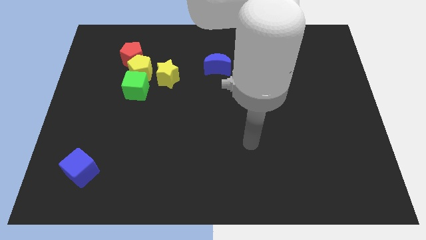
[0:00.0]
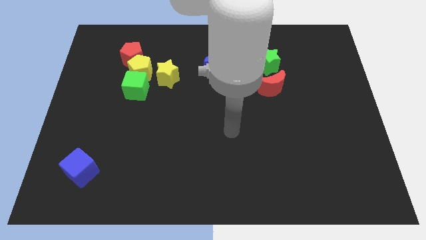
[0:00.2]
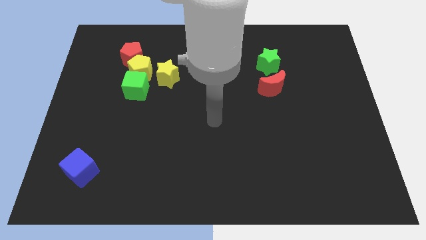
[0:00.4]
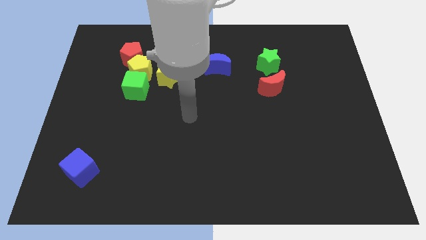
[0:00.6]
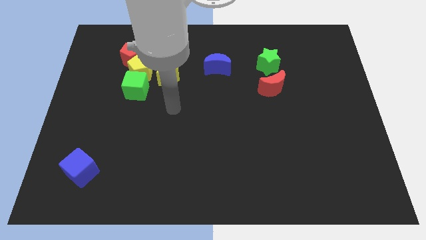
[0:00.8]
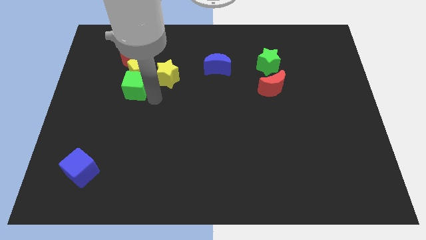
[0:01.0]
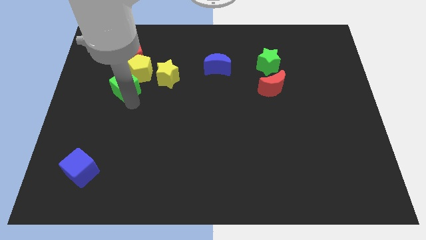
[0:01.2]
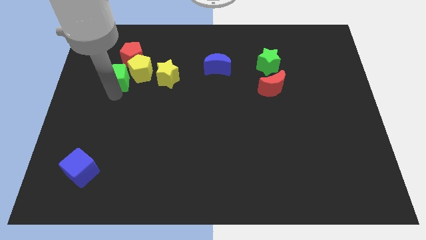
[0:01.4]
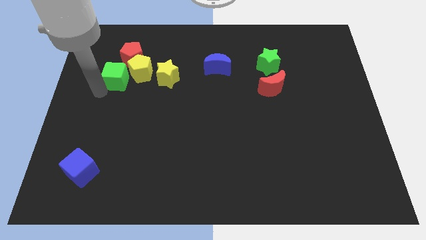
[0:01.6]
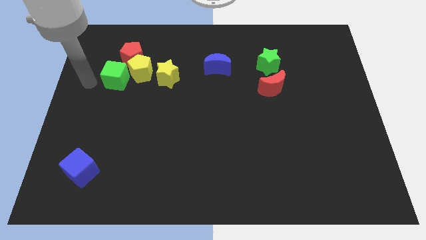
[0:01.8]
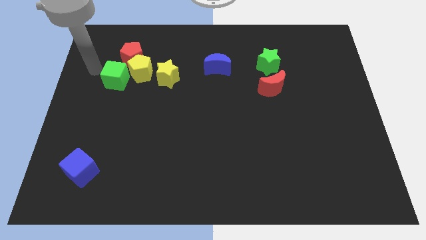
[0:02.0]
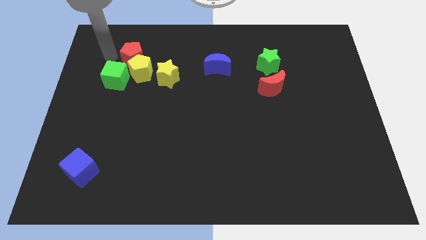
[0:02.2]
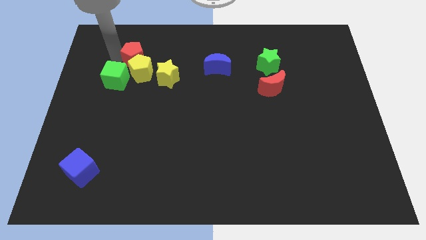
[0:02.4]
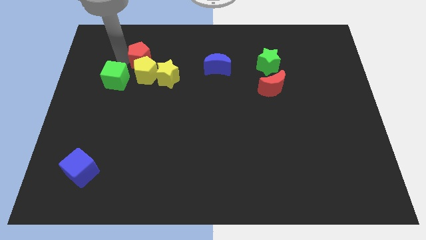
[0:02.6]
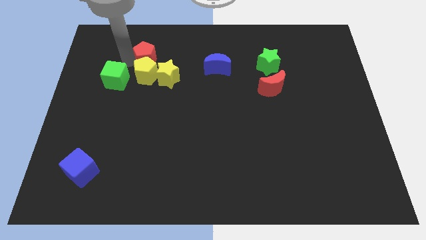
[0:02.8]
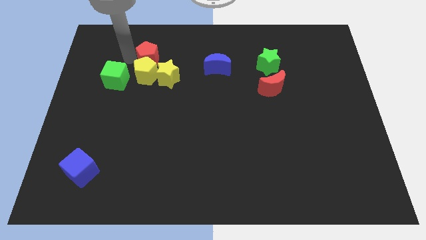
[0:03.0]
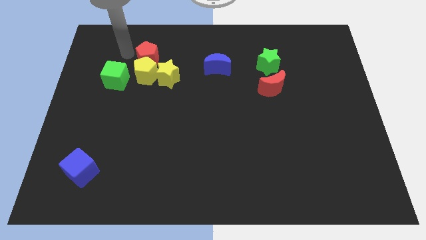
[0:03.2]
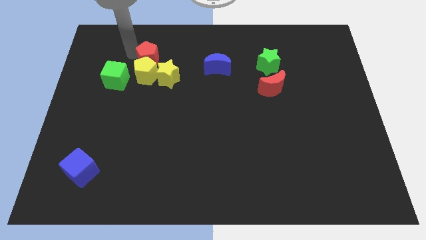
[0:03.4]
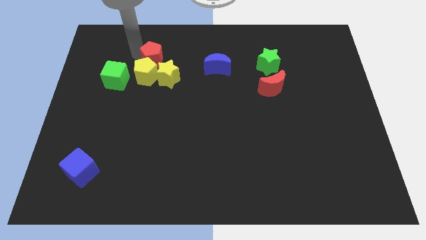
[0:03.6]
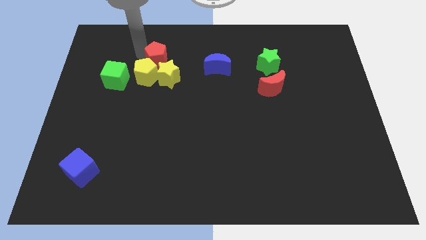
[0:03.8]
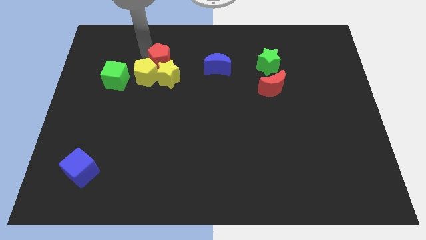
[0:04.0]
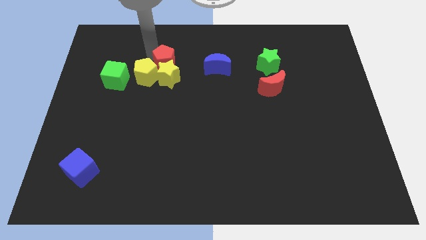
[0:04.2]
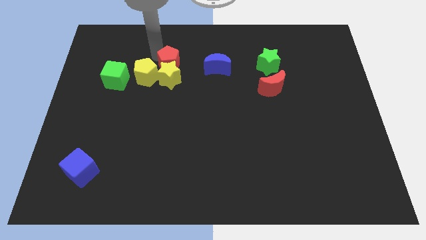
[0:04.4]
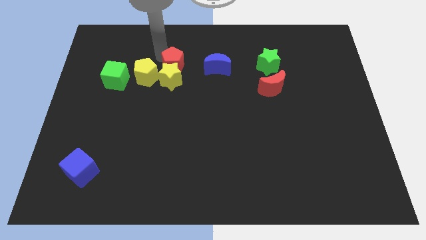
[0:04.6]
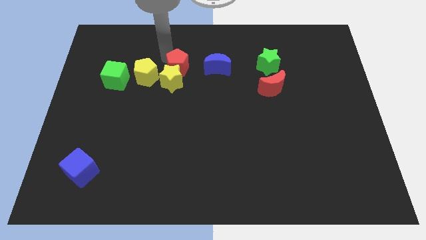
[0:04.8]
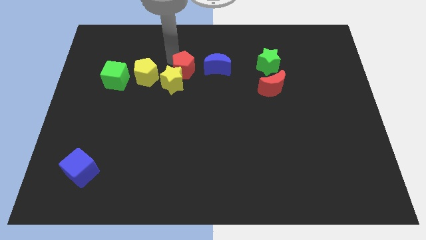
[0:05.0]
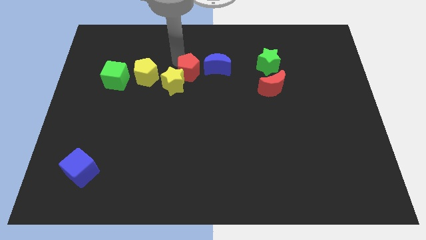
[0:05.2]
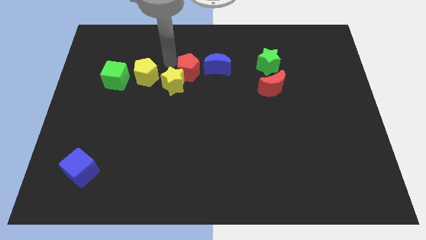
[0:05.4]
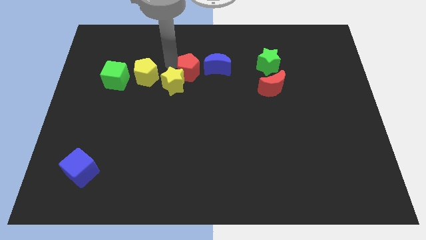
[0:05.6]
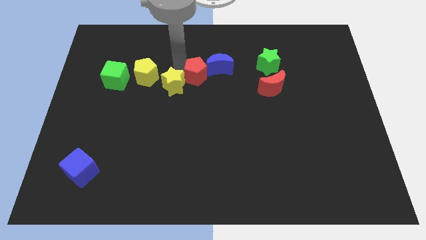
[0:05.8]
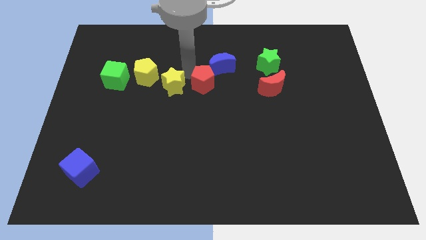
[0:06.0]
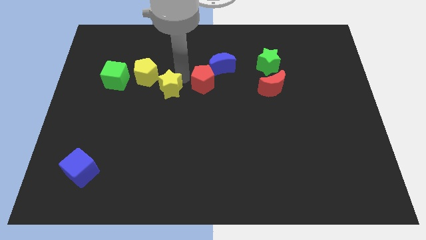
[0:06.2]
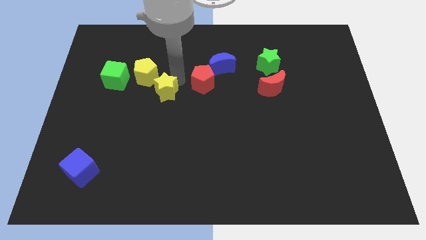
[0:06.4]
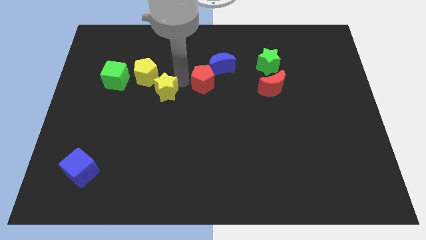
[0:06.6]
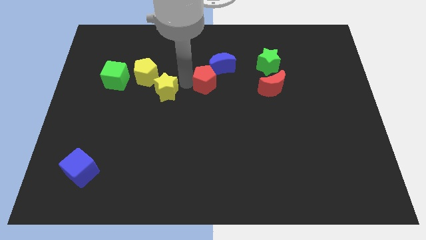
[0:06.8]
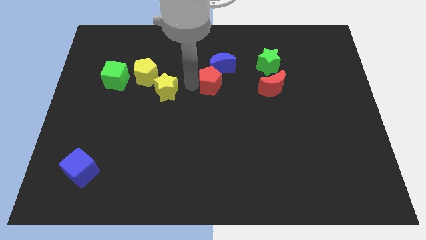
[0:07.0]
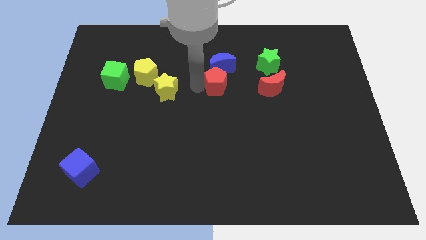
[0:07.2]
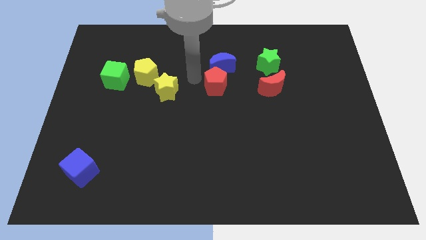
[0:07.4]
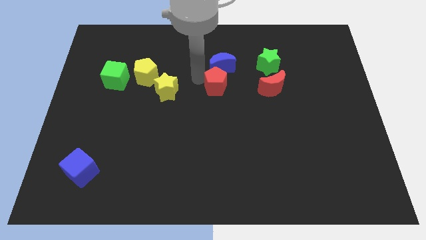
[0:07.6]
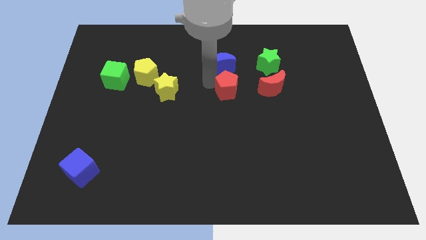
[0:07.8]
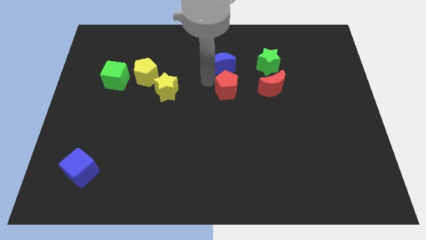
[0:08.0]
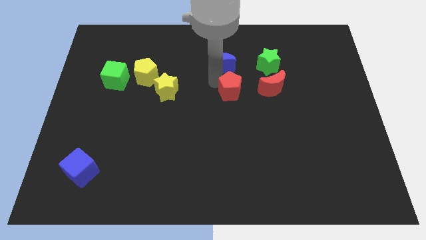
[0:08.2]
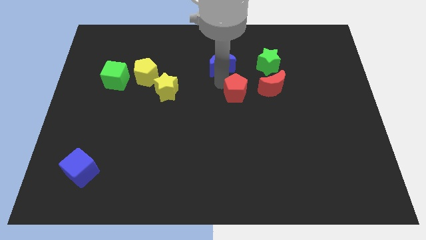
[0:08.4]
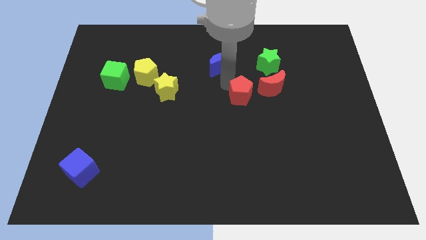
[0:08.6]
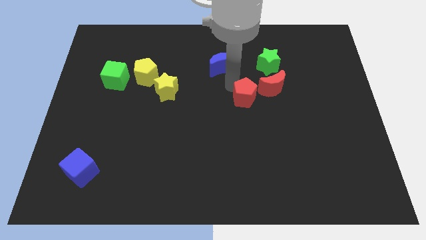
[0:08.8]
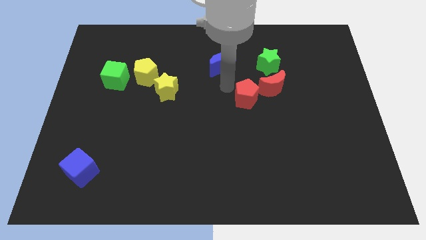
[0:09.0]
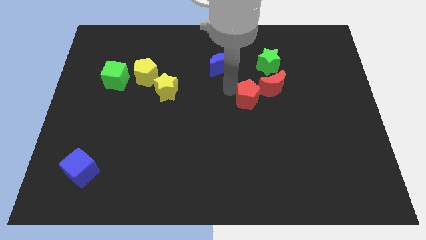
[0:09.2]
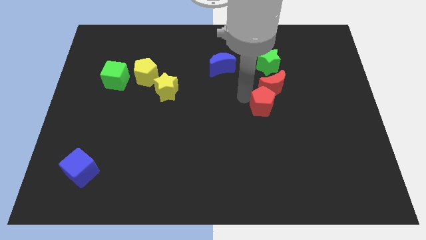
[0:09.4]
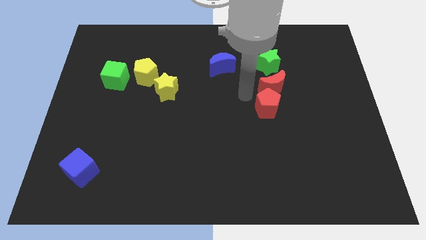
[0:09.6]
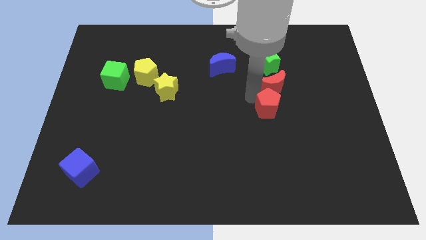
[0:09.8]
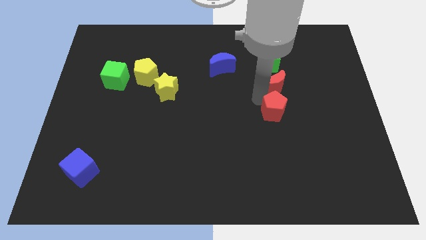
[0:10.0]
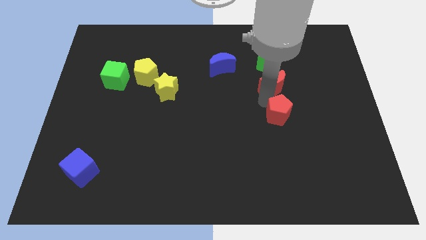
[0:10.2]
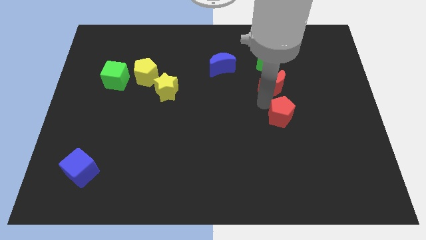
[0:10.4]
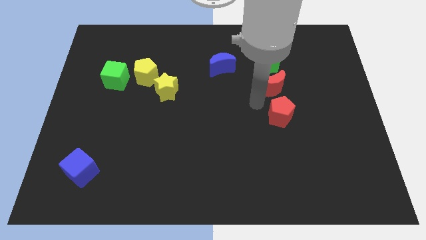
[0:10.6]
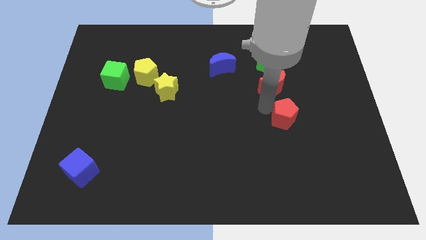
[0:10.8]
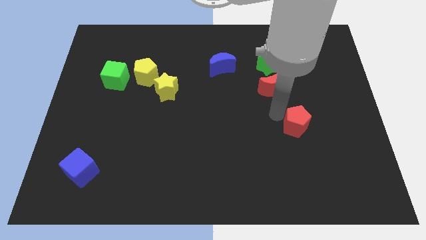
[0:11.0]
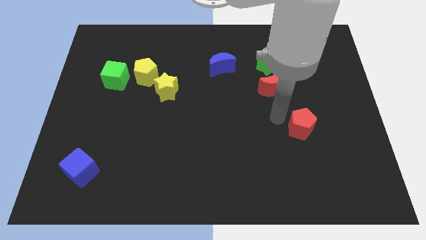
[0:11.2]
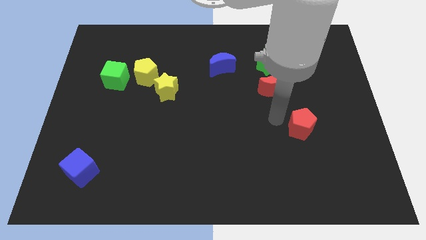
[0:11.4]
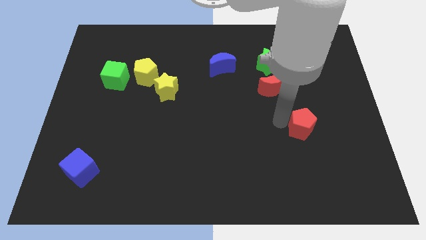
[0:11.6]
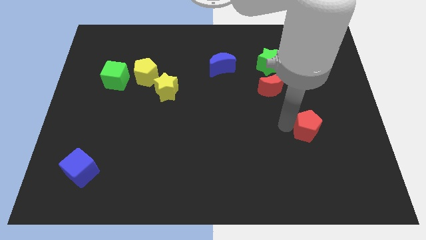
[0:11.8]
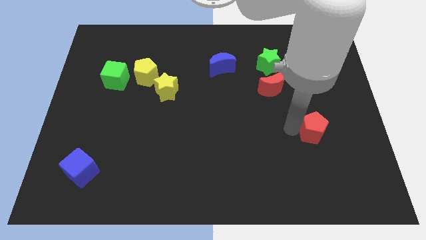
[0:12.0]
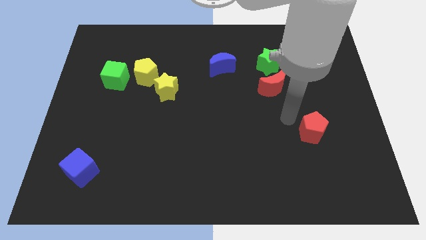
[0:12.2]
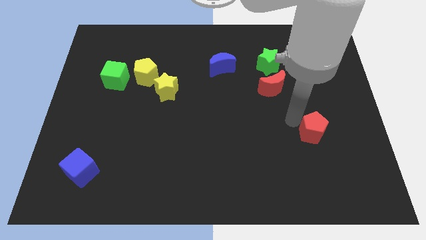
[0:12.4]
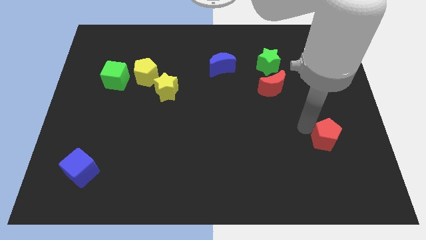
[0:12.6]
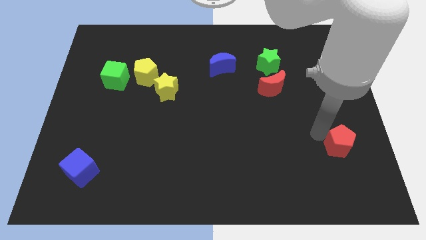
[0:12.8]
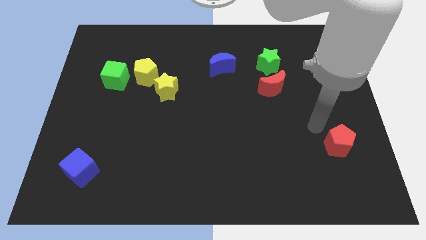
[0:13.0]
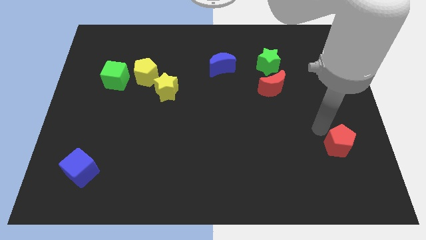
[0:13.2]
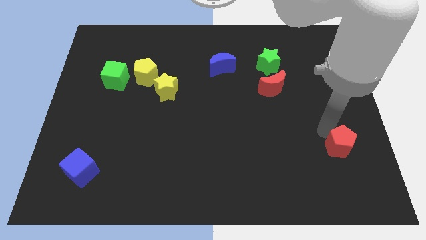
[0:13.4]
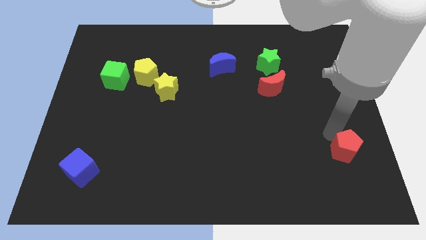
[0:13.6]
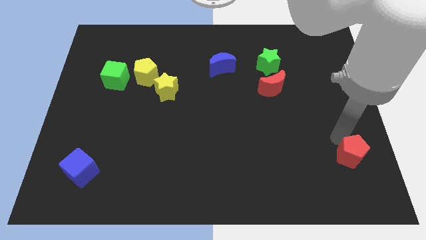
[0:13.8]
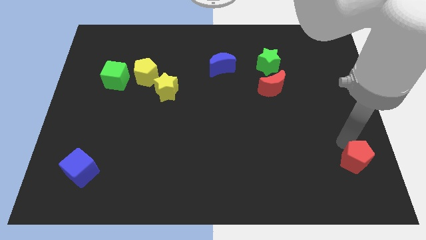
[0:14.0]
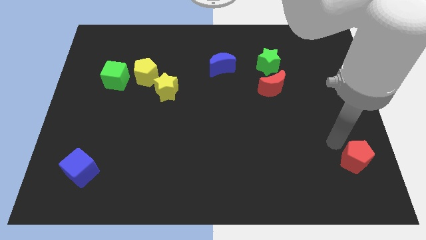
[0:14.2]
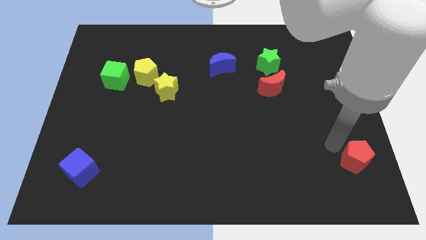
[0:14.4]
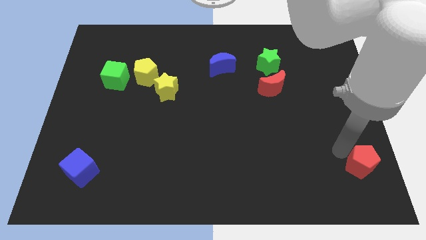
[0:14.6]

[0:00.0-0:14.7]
slide the red pentagon to the lower right corner
